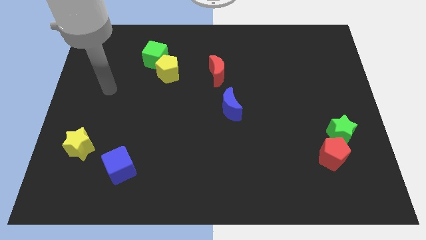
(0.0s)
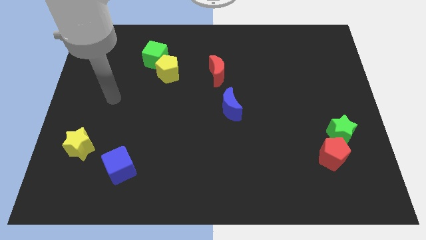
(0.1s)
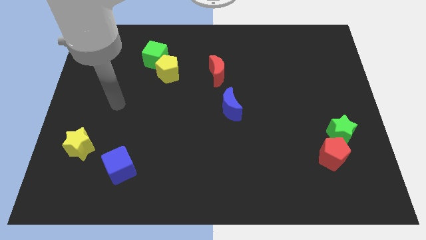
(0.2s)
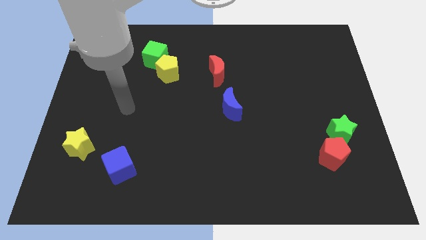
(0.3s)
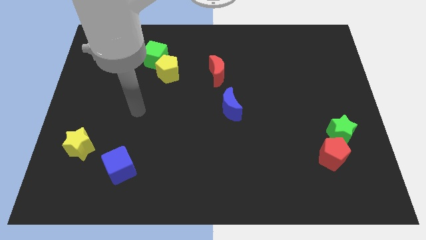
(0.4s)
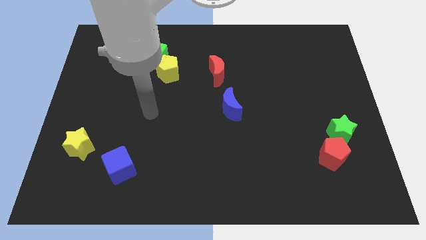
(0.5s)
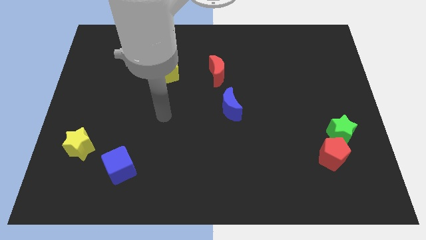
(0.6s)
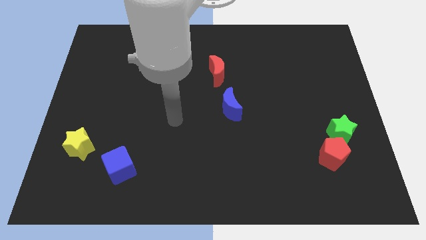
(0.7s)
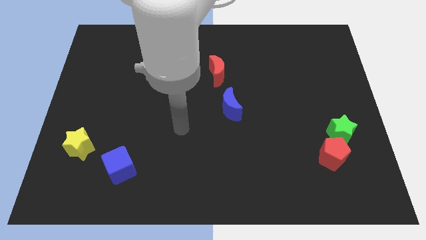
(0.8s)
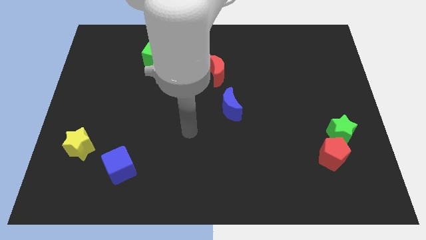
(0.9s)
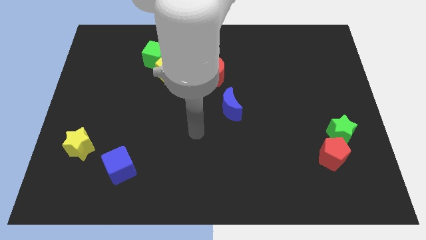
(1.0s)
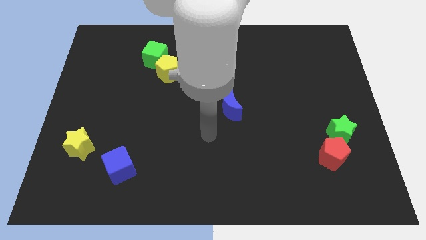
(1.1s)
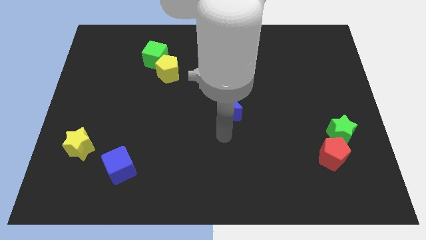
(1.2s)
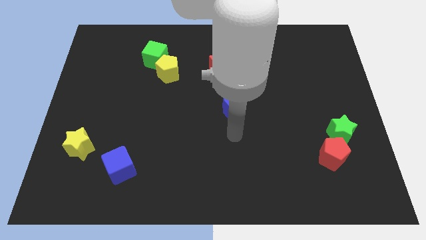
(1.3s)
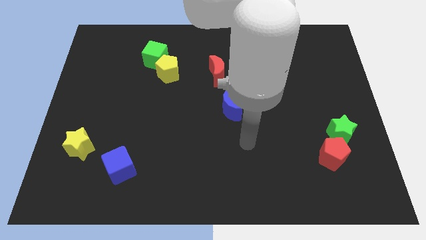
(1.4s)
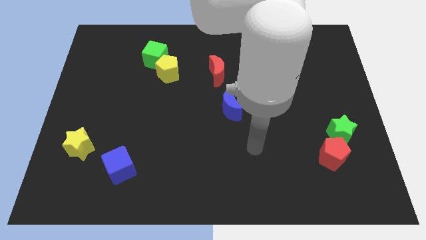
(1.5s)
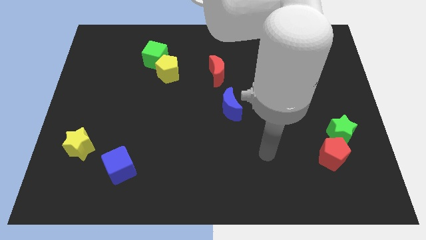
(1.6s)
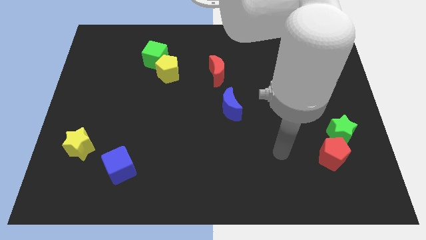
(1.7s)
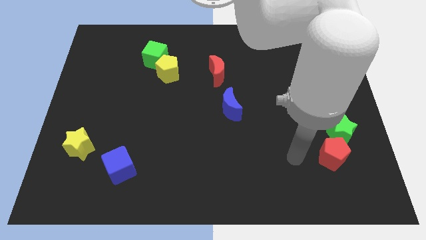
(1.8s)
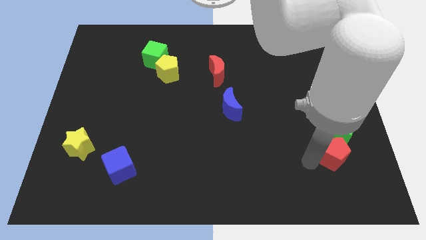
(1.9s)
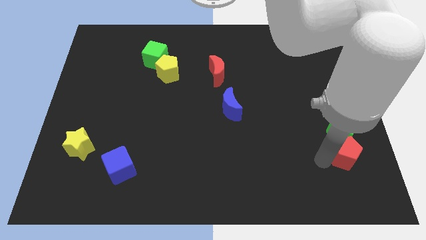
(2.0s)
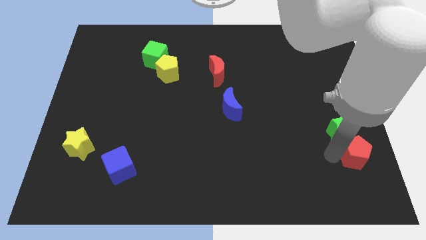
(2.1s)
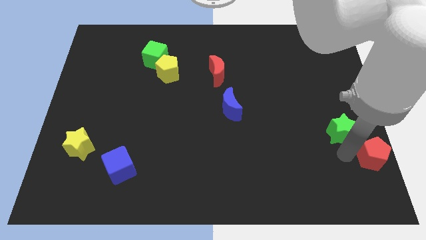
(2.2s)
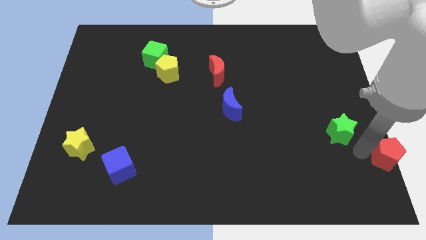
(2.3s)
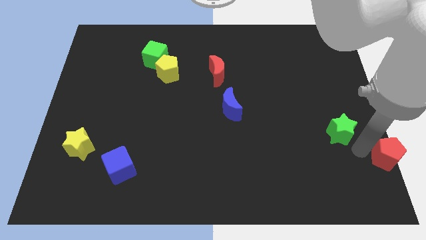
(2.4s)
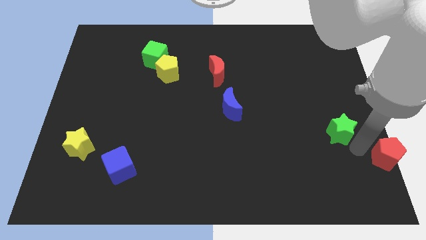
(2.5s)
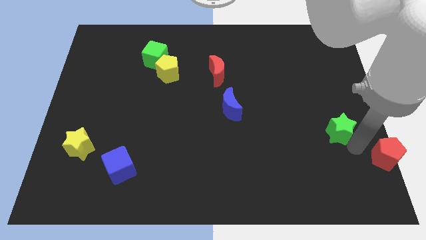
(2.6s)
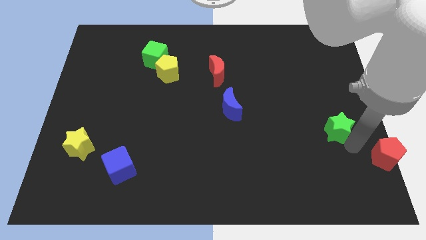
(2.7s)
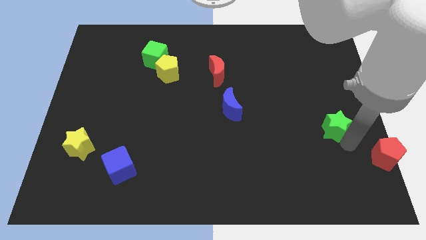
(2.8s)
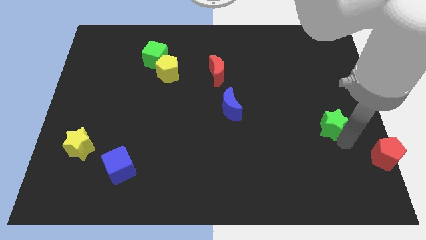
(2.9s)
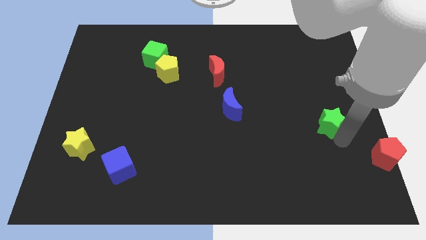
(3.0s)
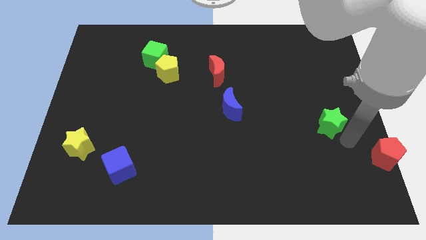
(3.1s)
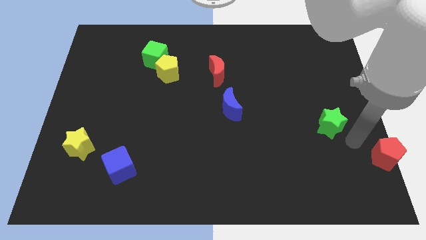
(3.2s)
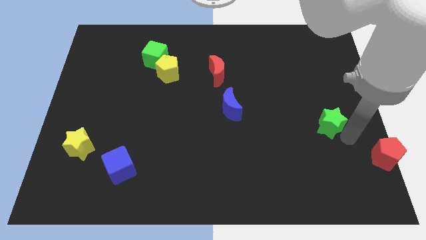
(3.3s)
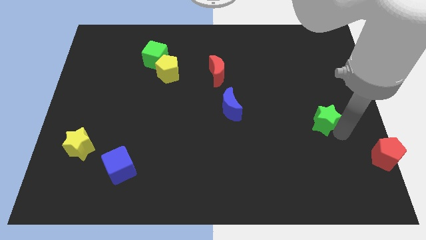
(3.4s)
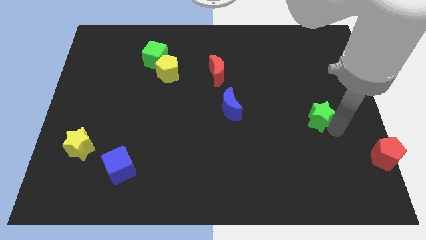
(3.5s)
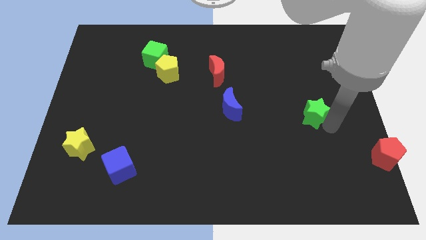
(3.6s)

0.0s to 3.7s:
slightly slide the green star upwards and then left

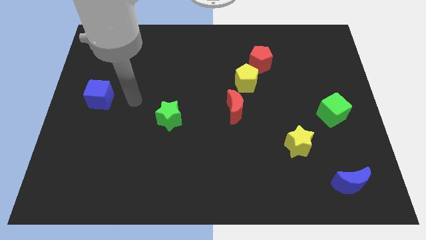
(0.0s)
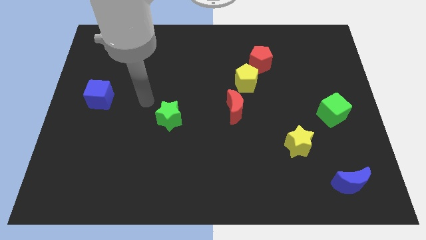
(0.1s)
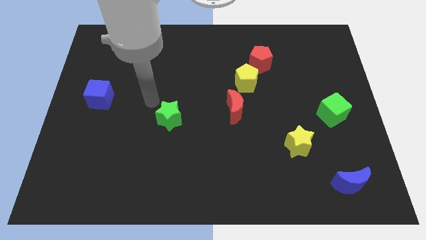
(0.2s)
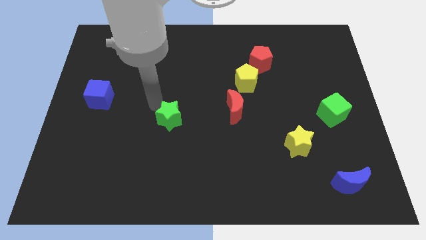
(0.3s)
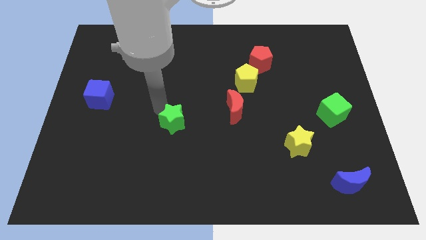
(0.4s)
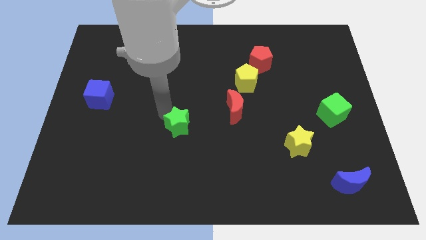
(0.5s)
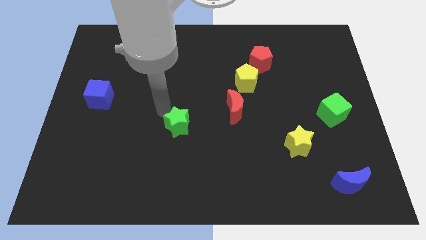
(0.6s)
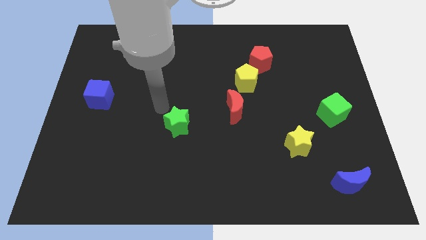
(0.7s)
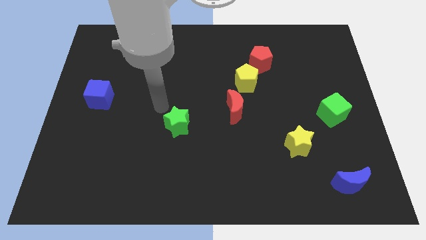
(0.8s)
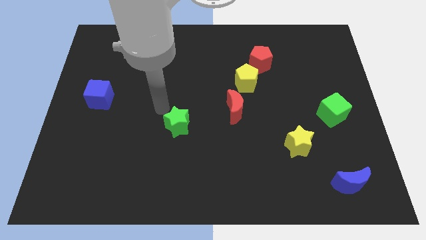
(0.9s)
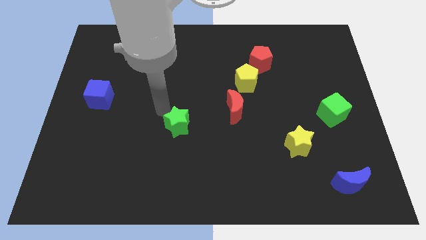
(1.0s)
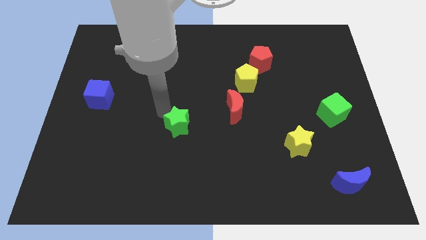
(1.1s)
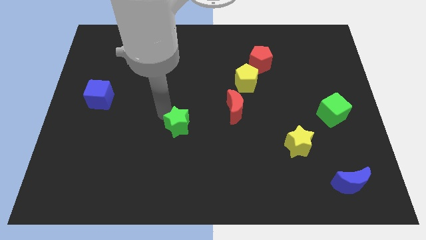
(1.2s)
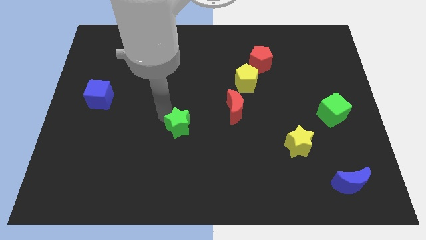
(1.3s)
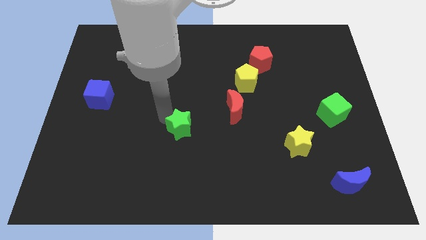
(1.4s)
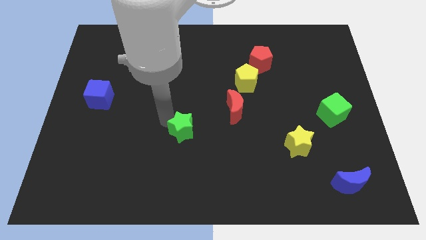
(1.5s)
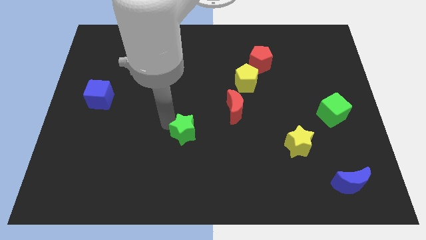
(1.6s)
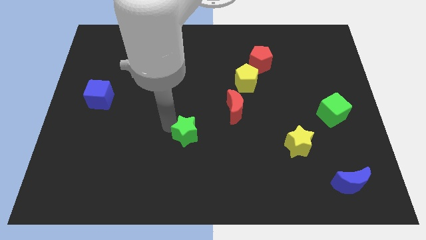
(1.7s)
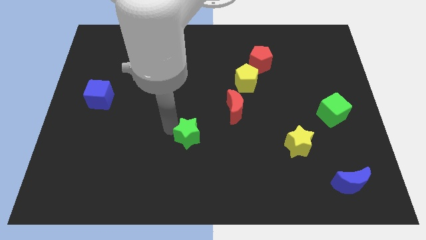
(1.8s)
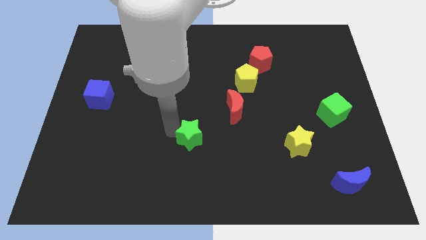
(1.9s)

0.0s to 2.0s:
push the green star down and then to the right a bit

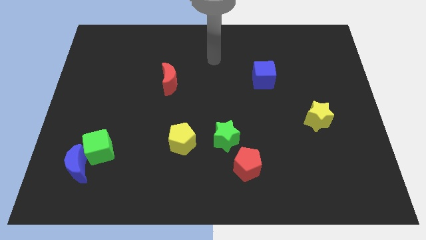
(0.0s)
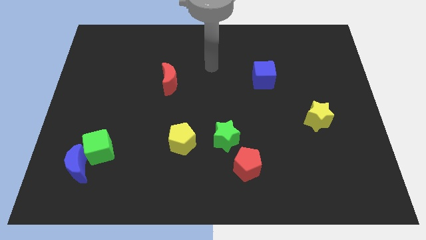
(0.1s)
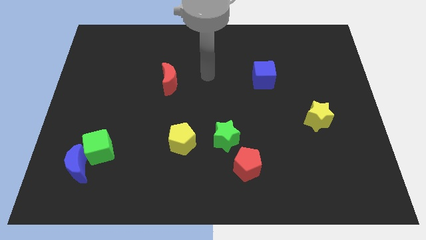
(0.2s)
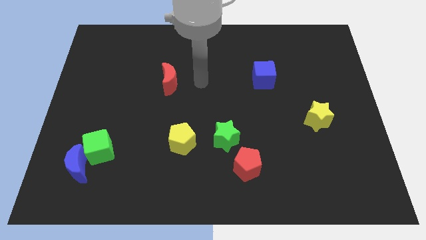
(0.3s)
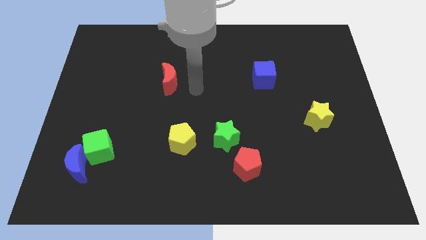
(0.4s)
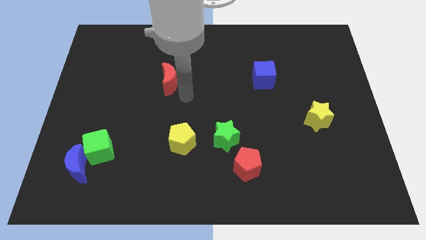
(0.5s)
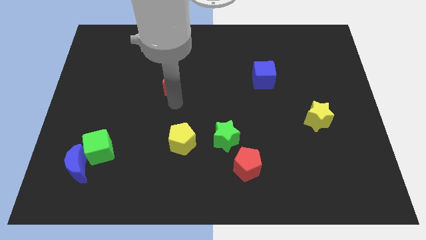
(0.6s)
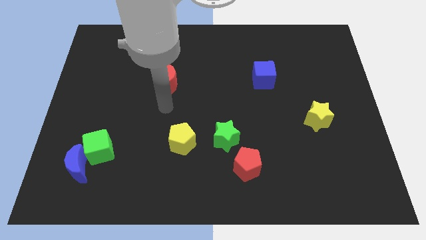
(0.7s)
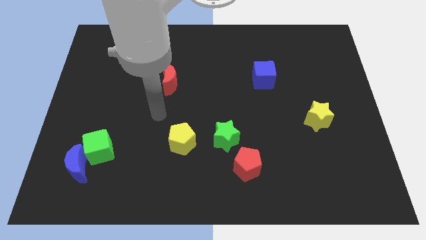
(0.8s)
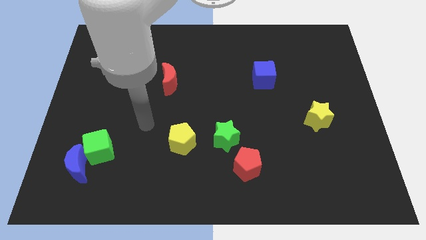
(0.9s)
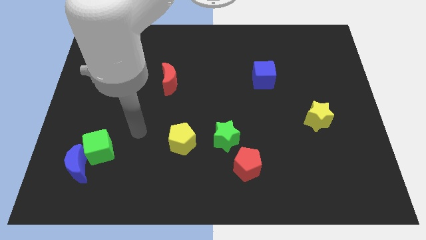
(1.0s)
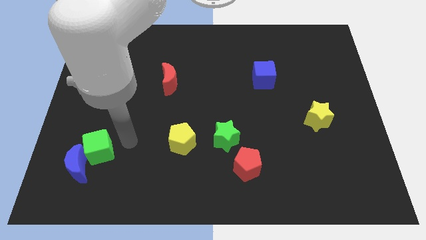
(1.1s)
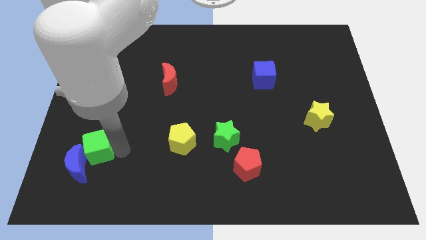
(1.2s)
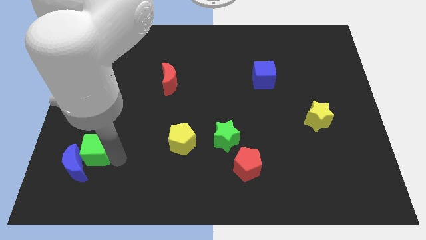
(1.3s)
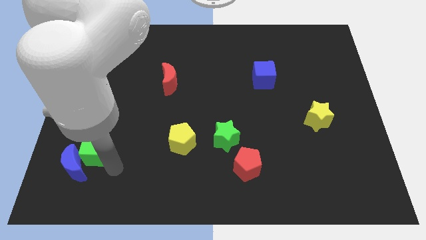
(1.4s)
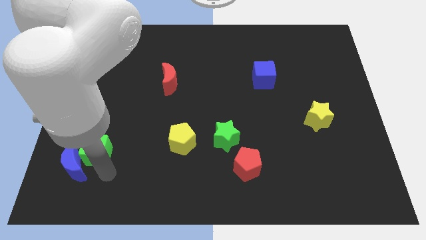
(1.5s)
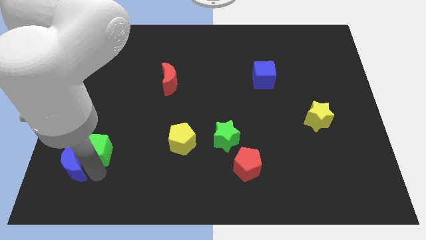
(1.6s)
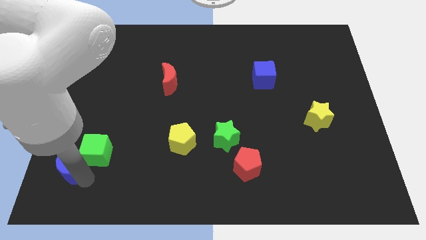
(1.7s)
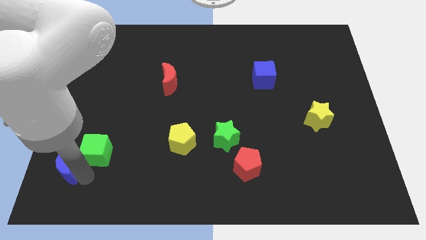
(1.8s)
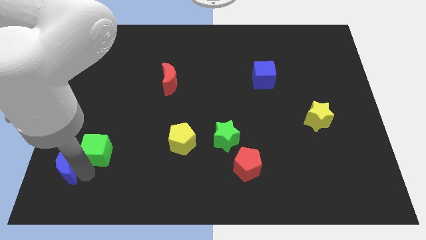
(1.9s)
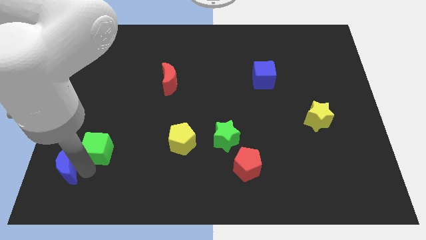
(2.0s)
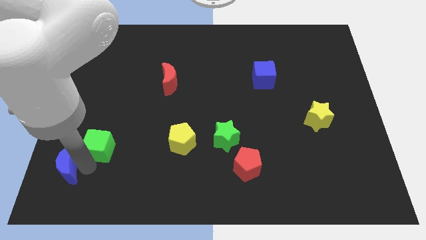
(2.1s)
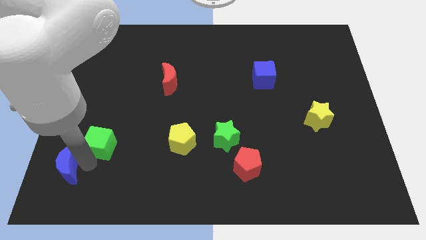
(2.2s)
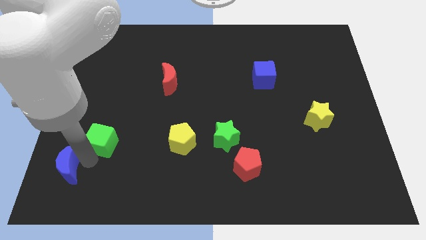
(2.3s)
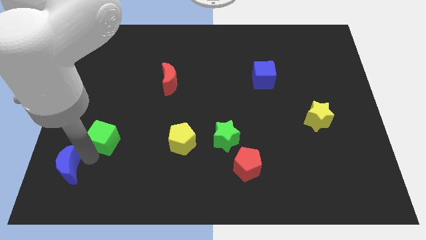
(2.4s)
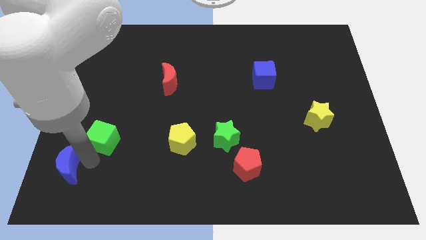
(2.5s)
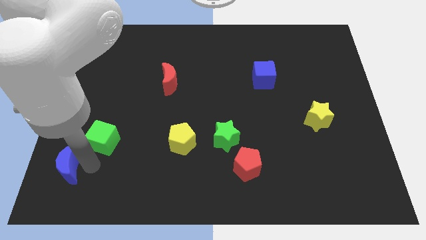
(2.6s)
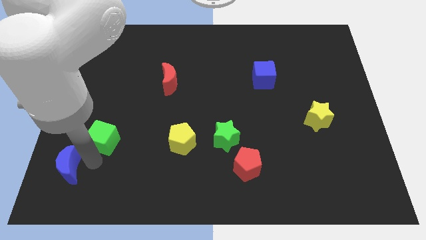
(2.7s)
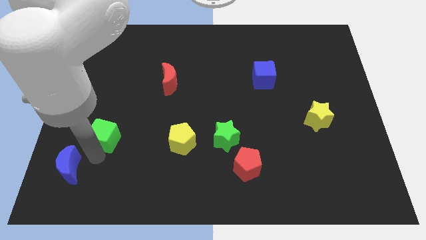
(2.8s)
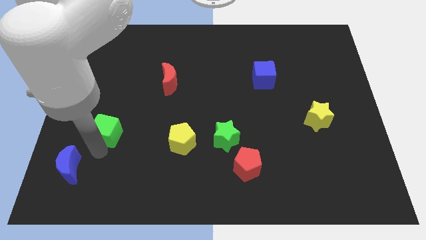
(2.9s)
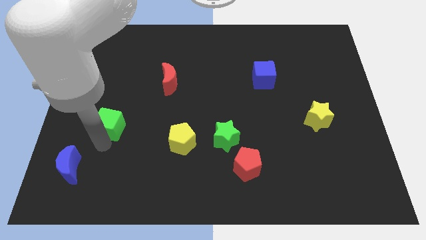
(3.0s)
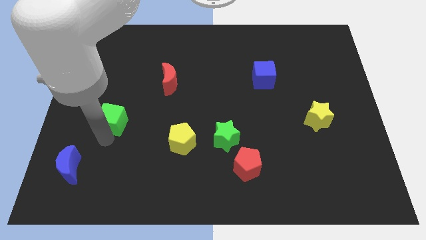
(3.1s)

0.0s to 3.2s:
slightly push the green cube up
